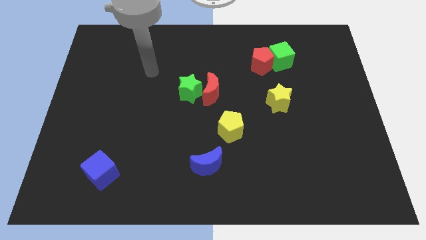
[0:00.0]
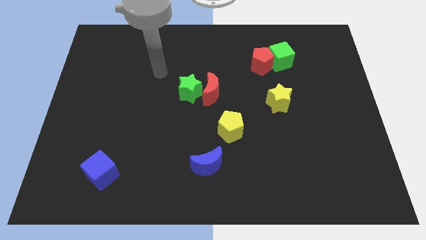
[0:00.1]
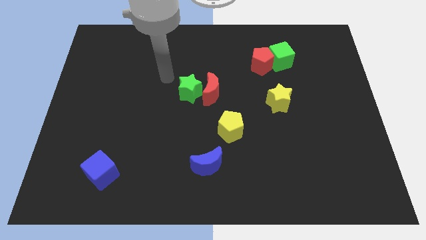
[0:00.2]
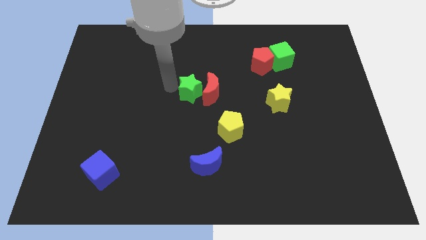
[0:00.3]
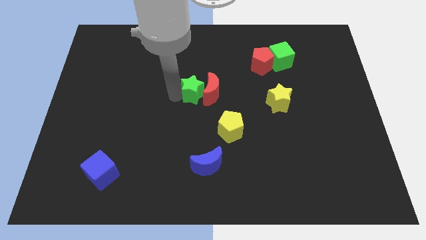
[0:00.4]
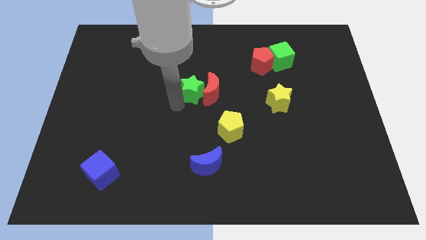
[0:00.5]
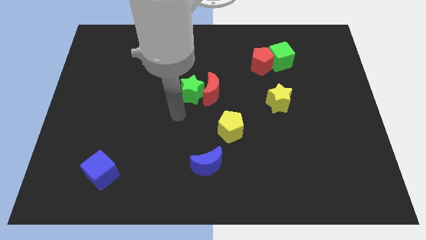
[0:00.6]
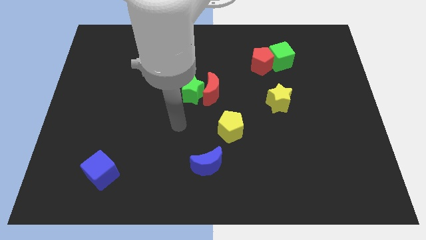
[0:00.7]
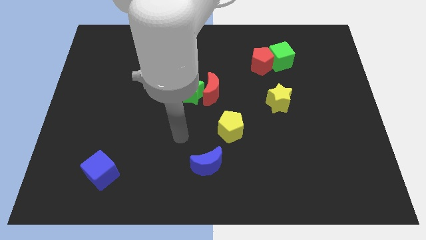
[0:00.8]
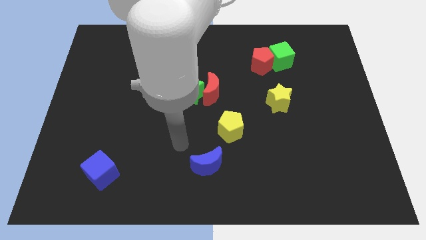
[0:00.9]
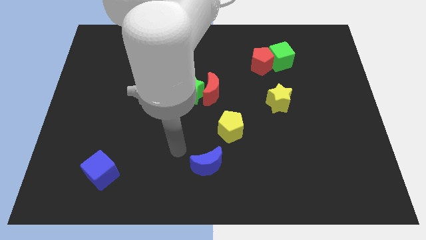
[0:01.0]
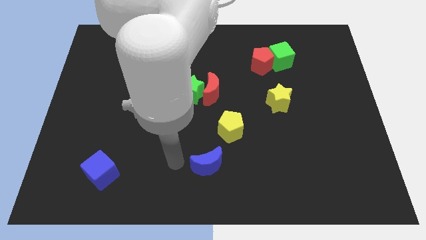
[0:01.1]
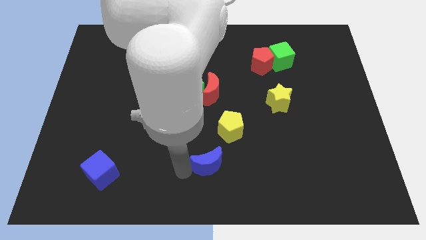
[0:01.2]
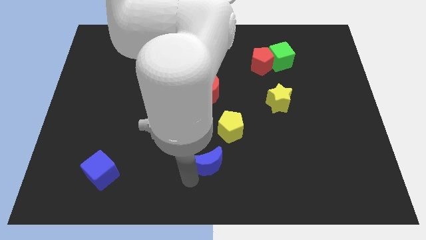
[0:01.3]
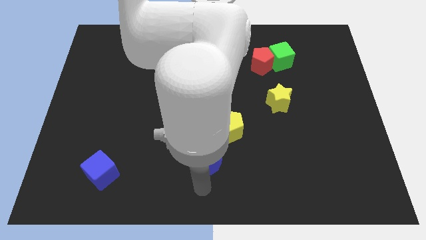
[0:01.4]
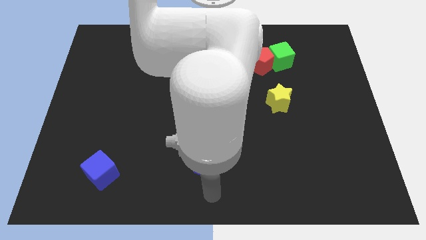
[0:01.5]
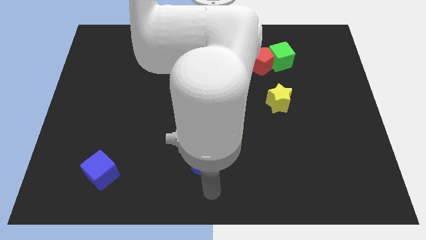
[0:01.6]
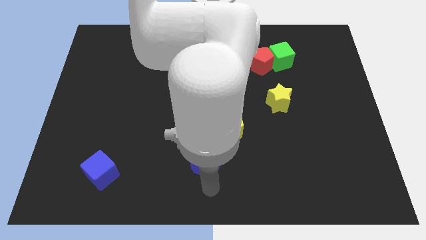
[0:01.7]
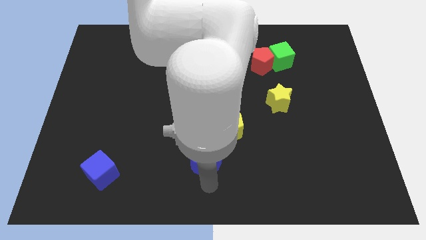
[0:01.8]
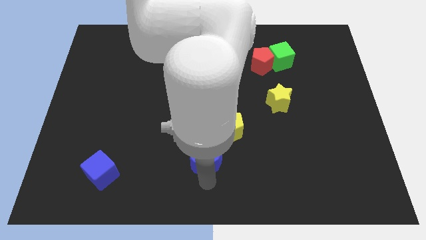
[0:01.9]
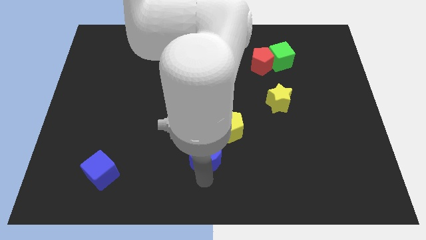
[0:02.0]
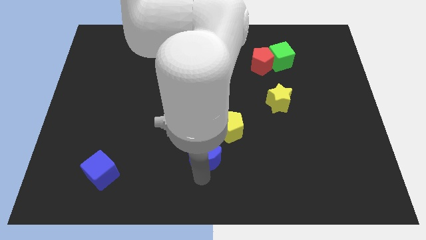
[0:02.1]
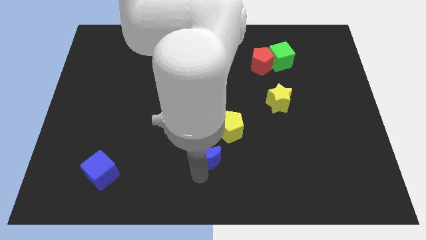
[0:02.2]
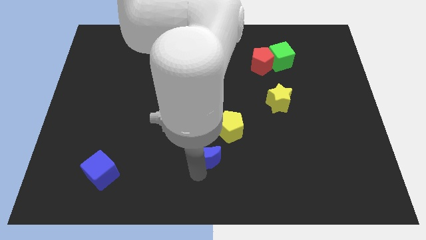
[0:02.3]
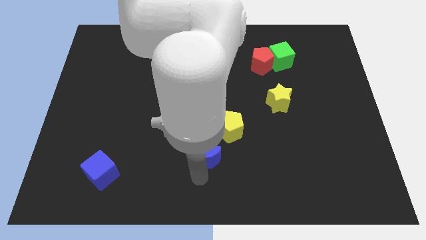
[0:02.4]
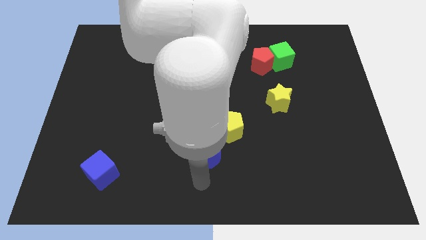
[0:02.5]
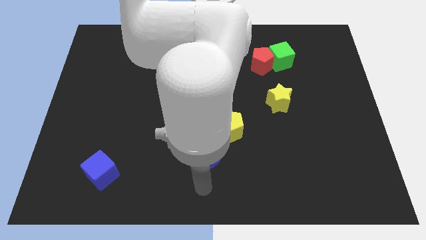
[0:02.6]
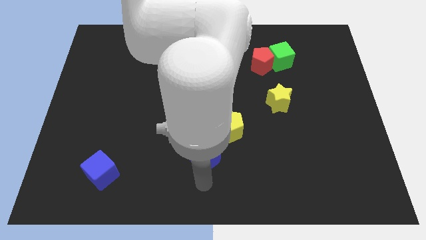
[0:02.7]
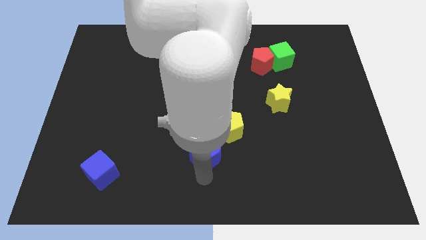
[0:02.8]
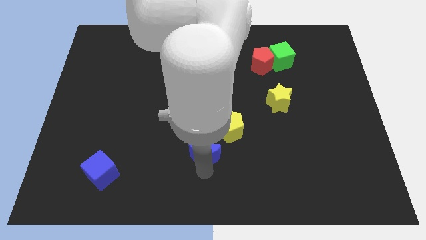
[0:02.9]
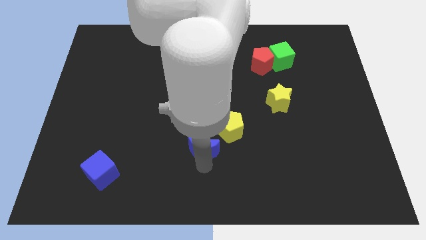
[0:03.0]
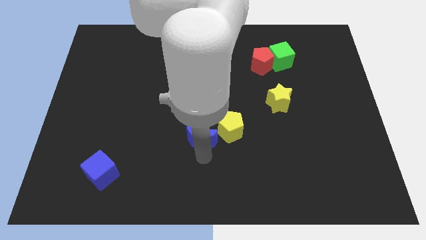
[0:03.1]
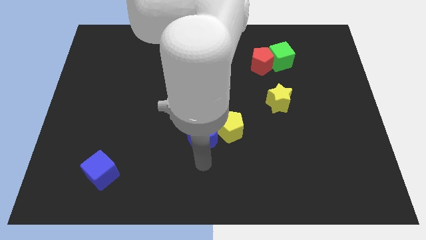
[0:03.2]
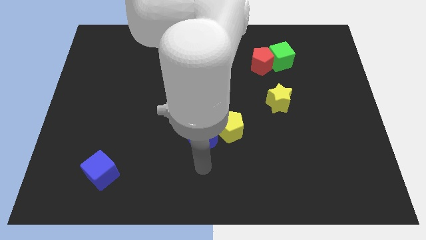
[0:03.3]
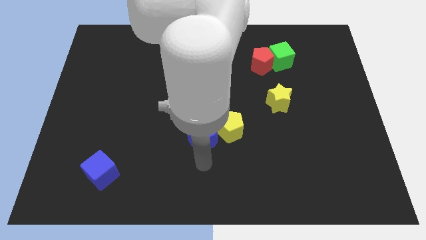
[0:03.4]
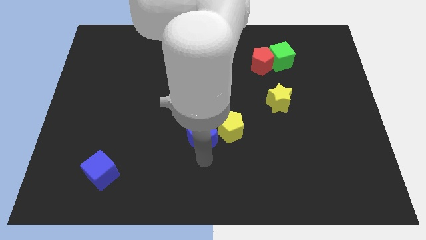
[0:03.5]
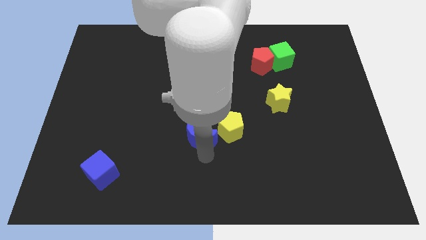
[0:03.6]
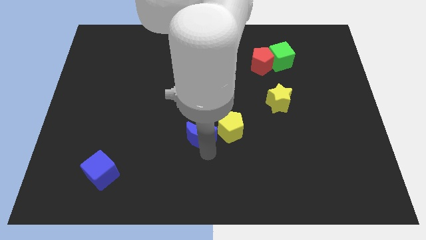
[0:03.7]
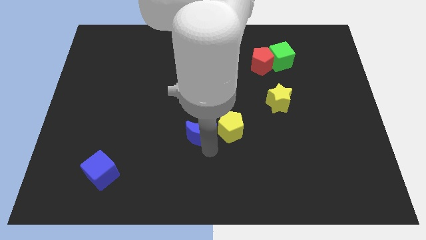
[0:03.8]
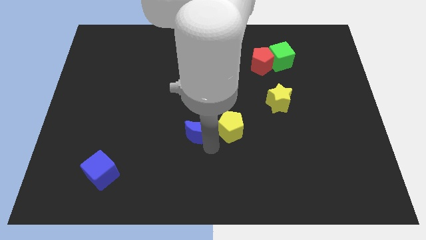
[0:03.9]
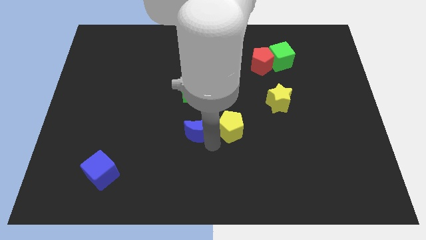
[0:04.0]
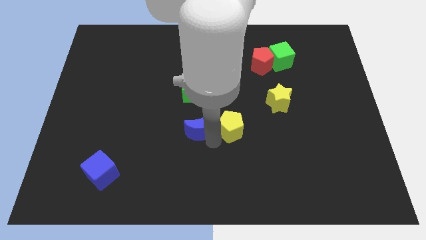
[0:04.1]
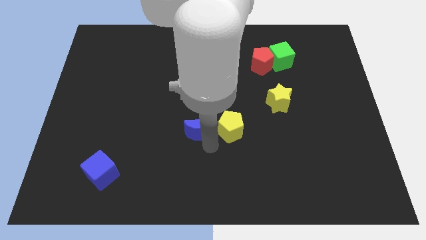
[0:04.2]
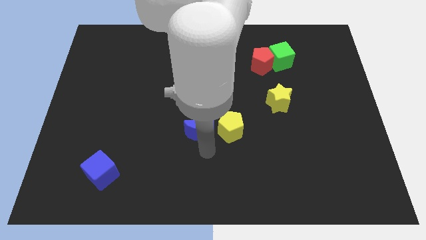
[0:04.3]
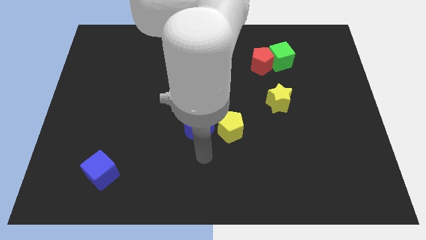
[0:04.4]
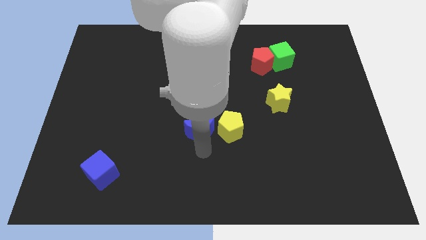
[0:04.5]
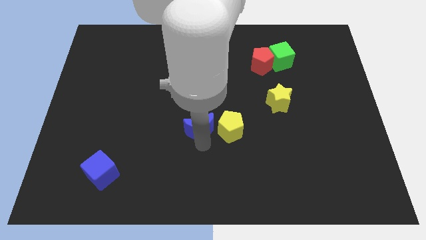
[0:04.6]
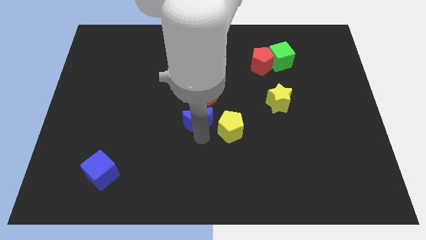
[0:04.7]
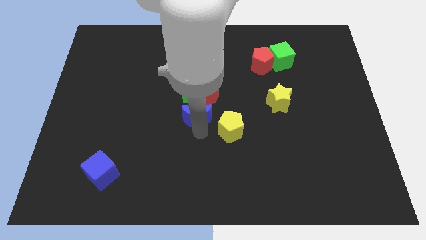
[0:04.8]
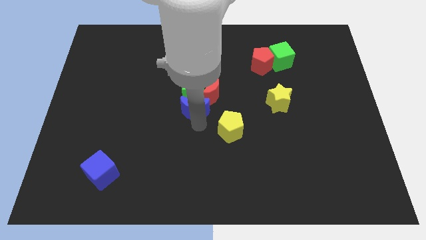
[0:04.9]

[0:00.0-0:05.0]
put the blue moon next to the green star

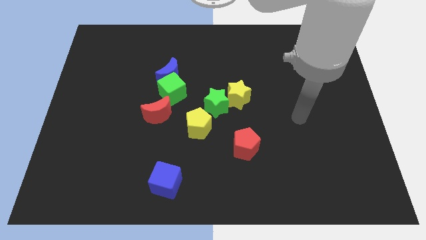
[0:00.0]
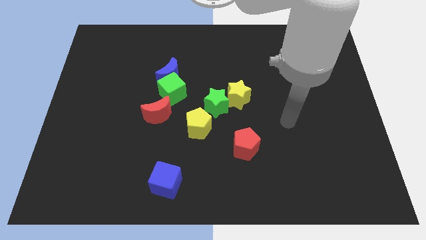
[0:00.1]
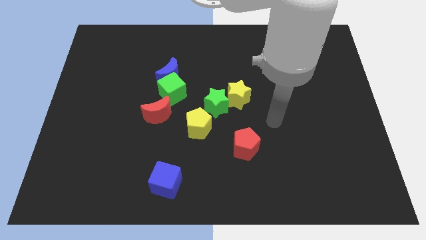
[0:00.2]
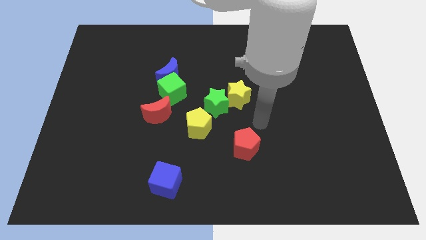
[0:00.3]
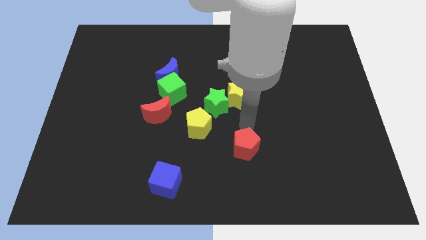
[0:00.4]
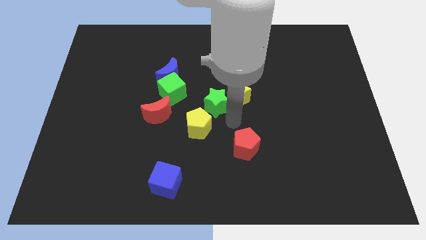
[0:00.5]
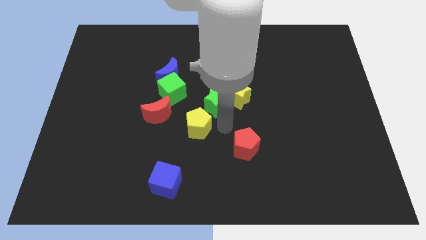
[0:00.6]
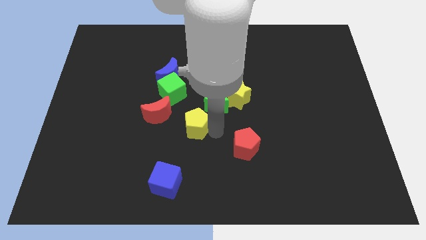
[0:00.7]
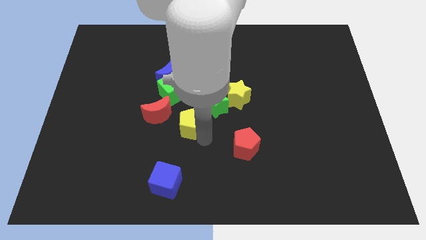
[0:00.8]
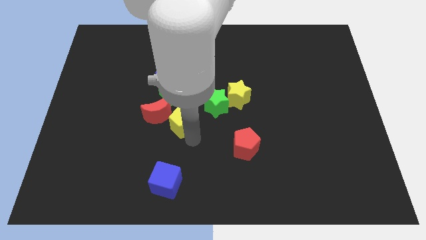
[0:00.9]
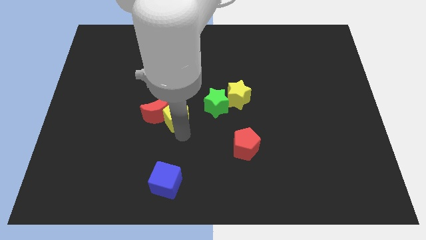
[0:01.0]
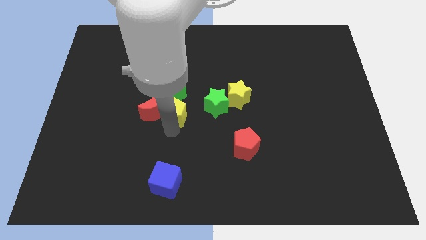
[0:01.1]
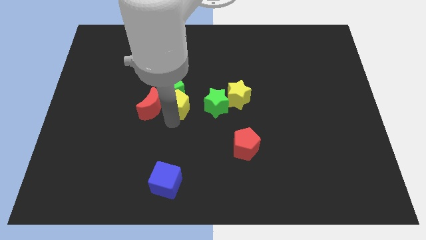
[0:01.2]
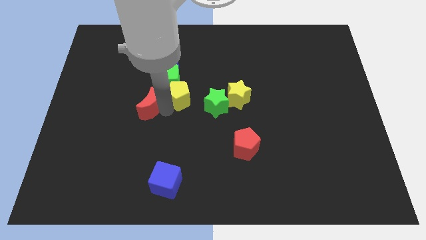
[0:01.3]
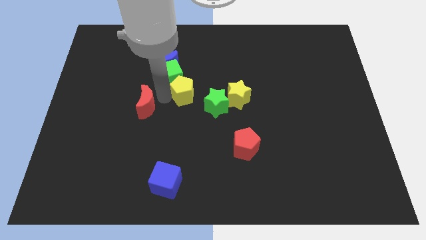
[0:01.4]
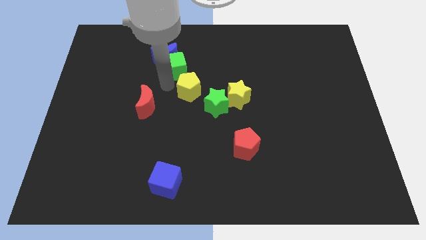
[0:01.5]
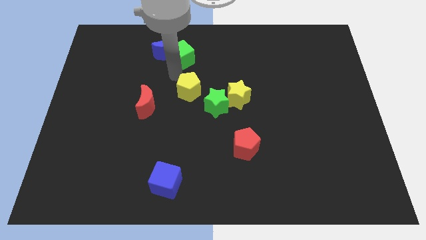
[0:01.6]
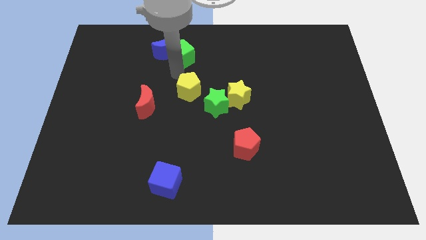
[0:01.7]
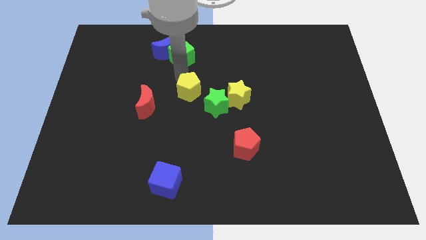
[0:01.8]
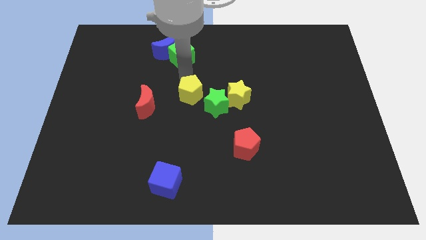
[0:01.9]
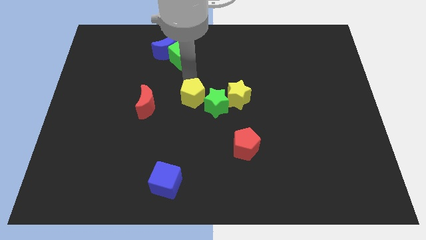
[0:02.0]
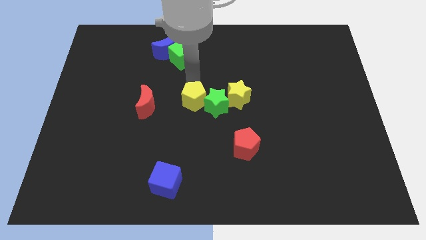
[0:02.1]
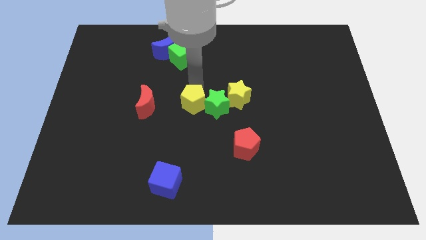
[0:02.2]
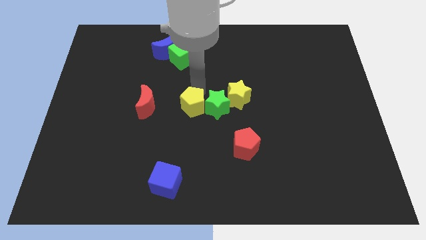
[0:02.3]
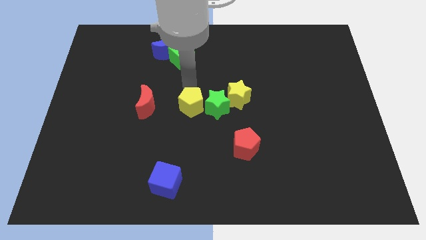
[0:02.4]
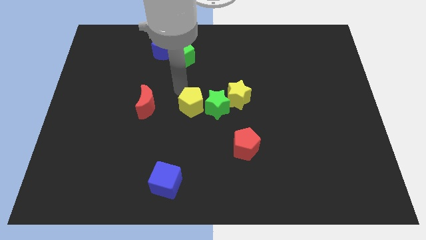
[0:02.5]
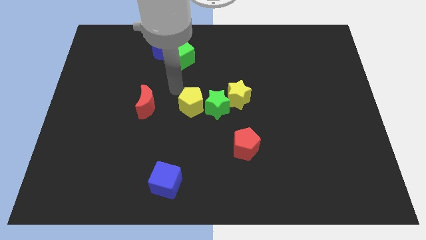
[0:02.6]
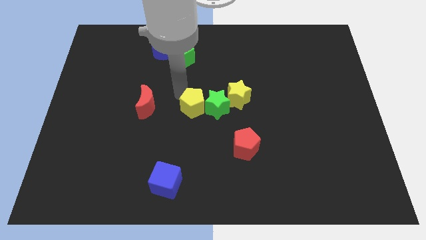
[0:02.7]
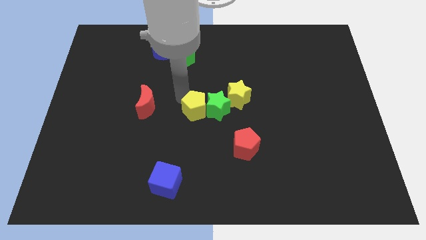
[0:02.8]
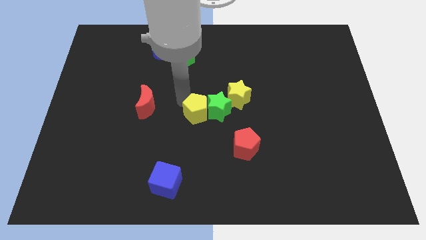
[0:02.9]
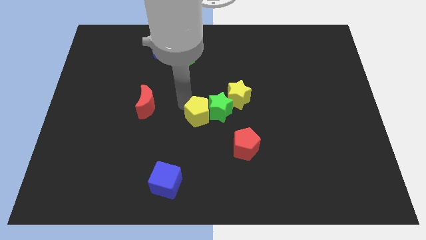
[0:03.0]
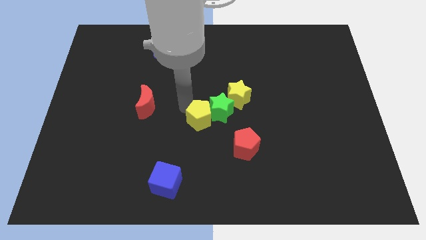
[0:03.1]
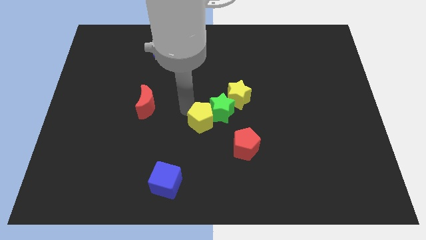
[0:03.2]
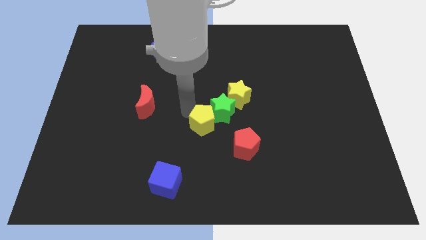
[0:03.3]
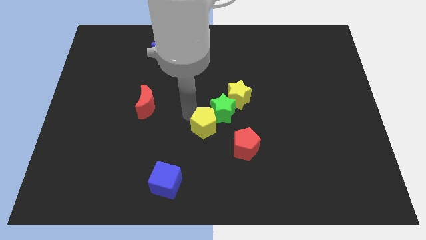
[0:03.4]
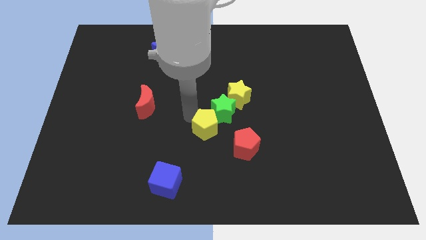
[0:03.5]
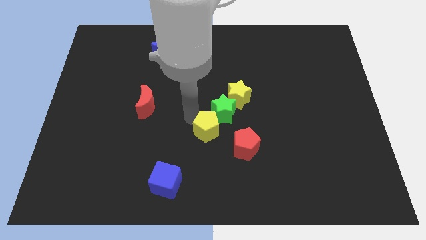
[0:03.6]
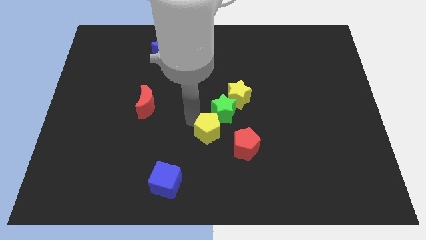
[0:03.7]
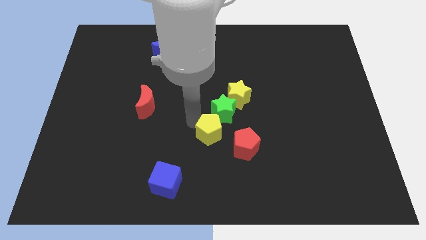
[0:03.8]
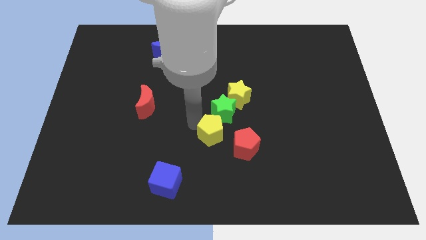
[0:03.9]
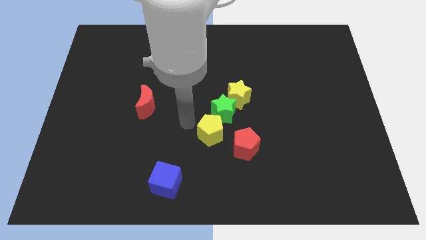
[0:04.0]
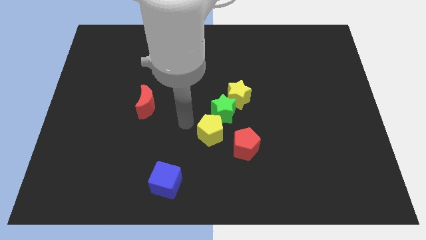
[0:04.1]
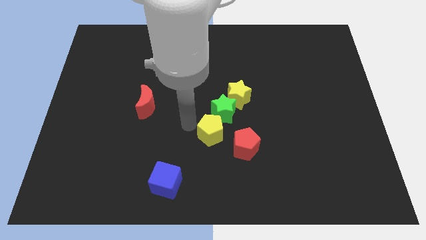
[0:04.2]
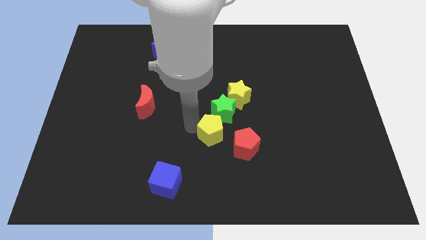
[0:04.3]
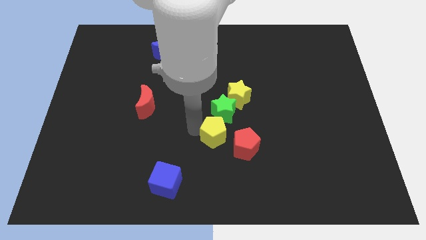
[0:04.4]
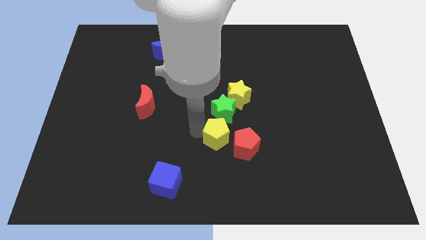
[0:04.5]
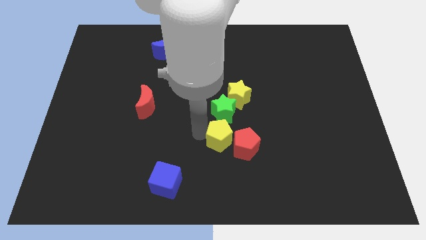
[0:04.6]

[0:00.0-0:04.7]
put the yellow pentagon towards the red pentagon
